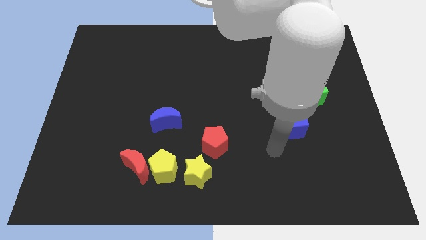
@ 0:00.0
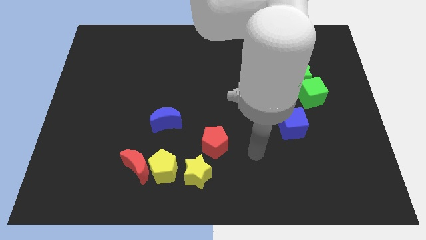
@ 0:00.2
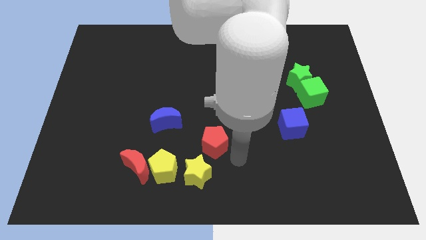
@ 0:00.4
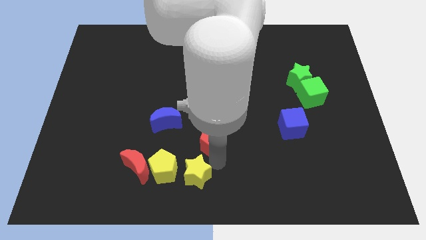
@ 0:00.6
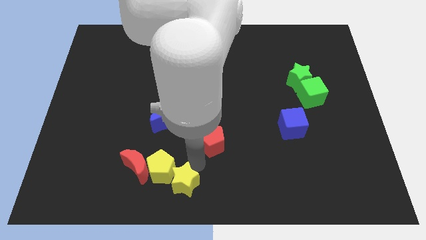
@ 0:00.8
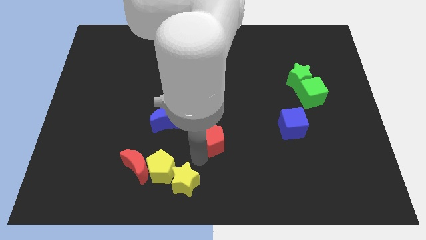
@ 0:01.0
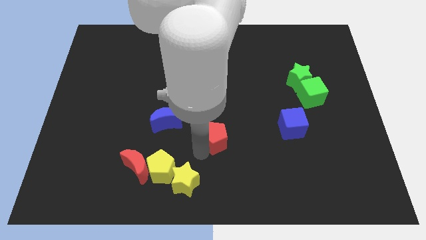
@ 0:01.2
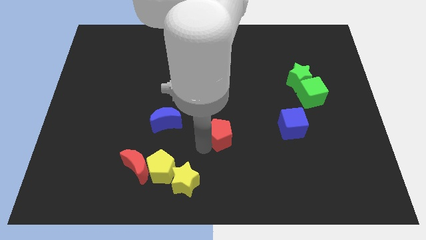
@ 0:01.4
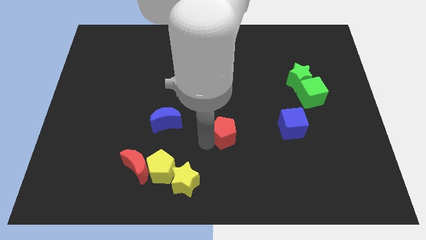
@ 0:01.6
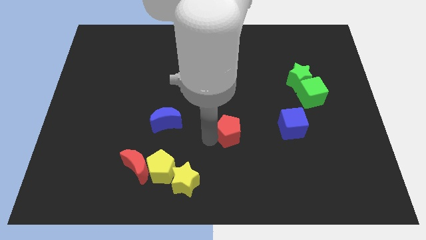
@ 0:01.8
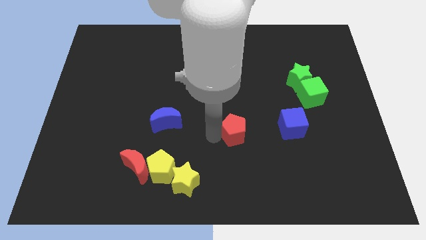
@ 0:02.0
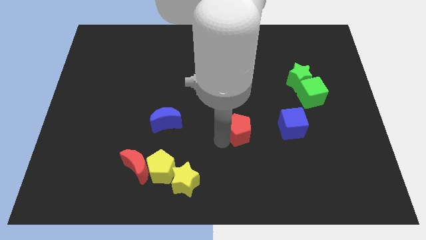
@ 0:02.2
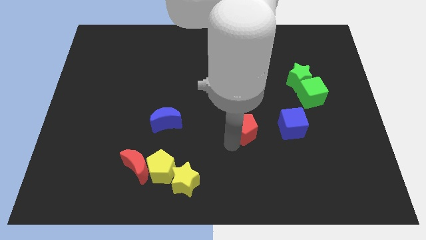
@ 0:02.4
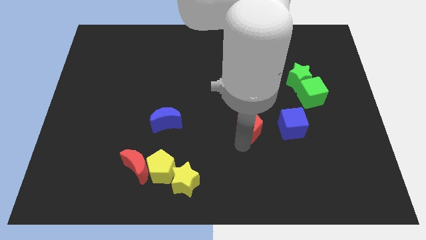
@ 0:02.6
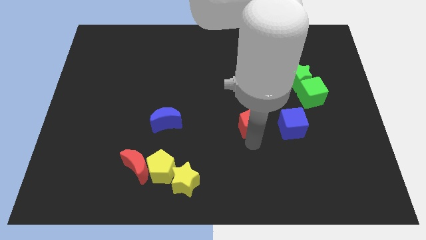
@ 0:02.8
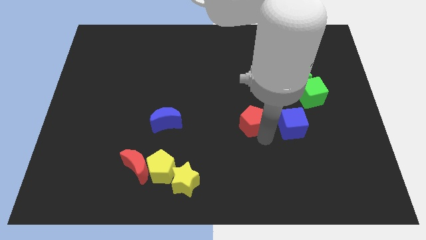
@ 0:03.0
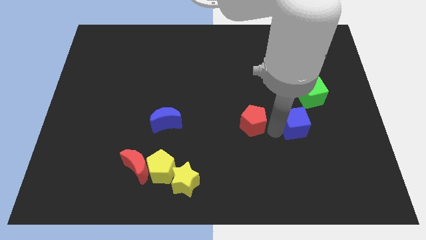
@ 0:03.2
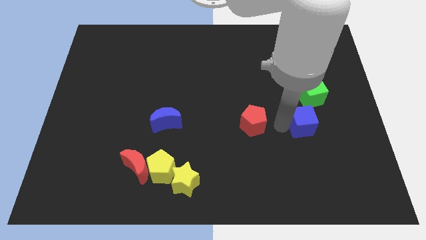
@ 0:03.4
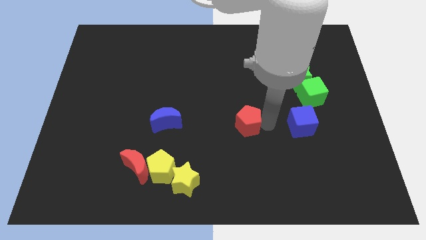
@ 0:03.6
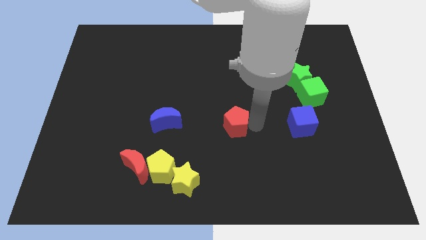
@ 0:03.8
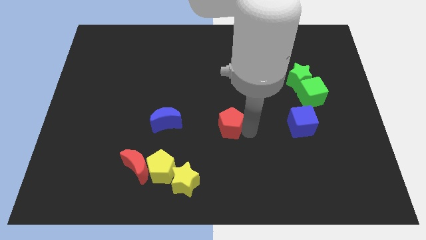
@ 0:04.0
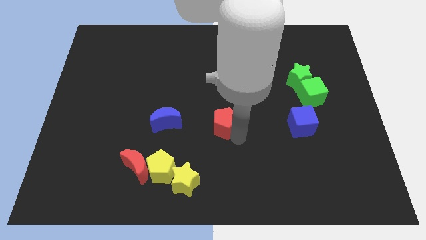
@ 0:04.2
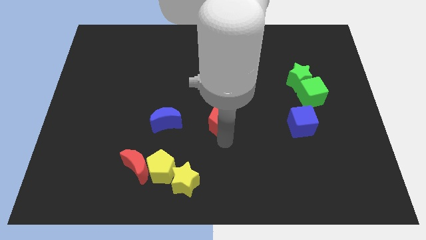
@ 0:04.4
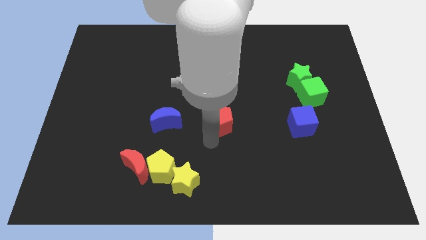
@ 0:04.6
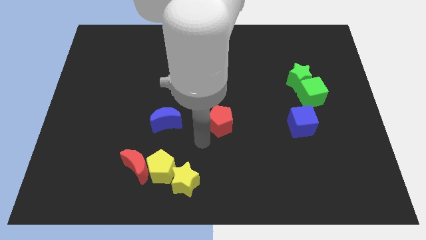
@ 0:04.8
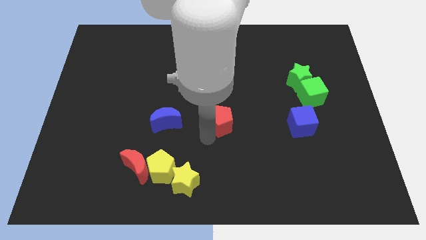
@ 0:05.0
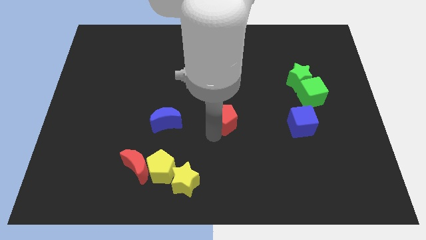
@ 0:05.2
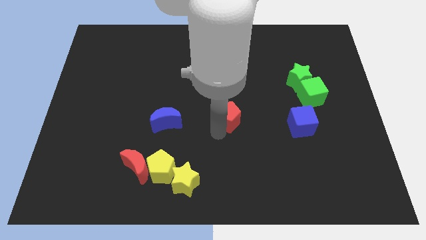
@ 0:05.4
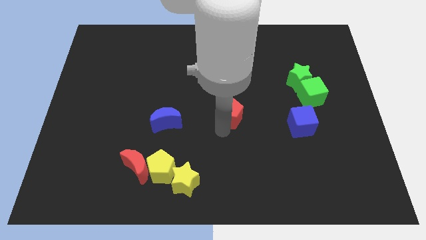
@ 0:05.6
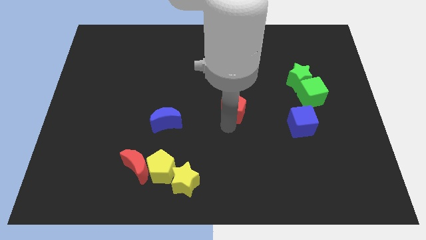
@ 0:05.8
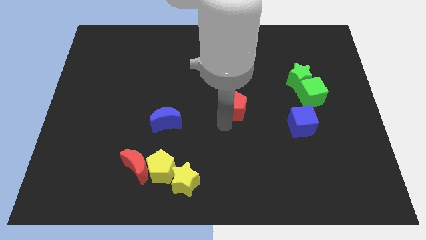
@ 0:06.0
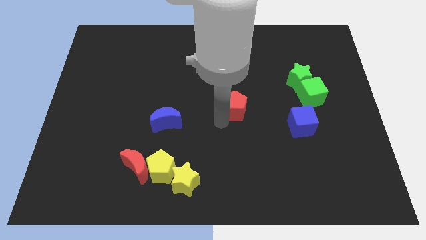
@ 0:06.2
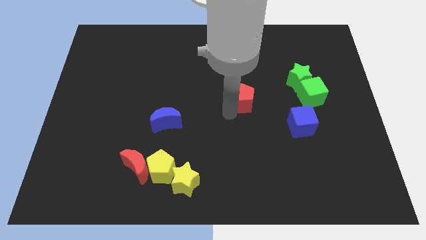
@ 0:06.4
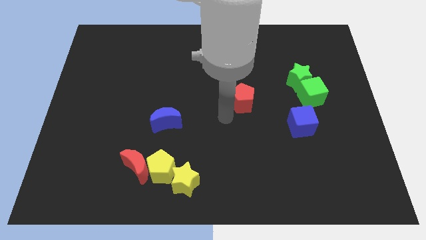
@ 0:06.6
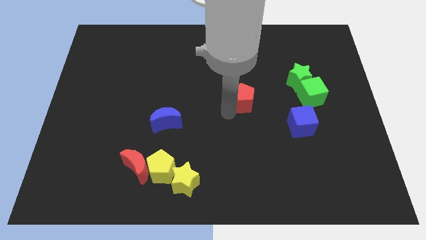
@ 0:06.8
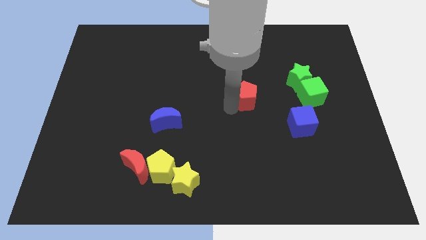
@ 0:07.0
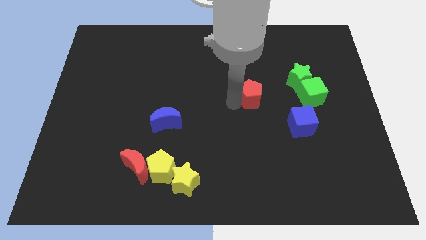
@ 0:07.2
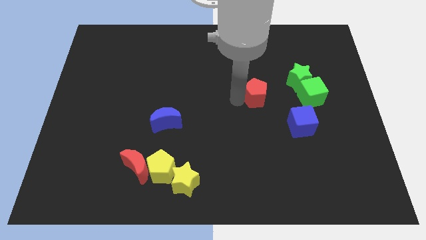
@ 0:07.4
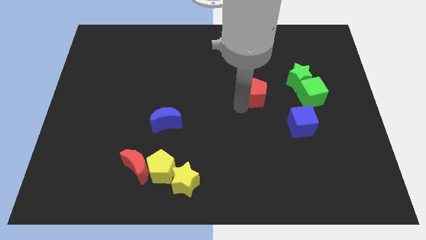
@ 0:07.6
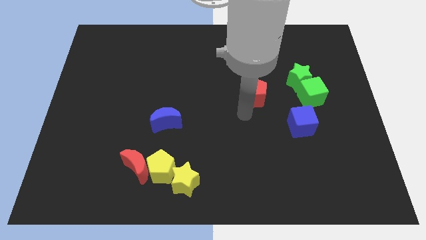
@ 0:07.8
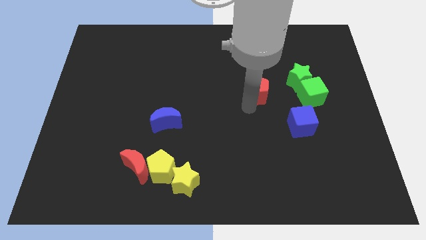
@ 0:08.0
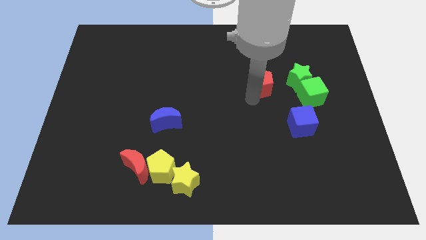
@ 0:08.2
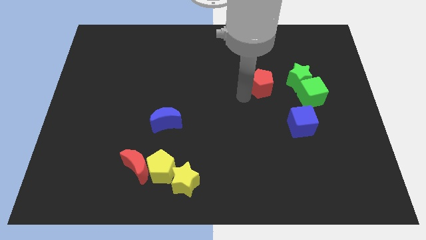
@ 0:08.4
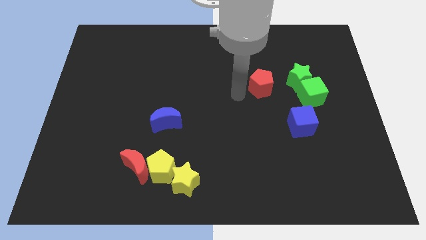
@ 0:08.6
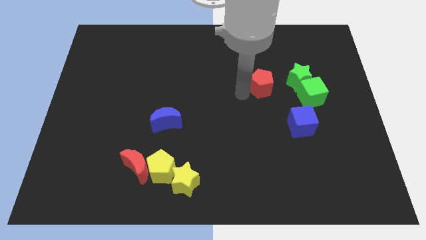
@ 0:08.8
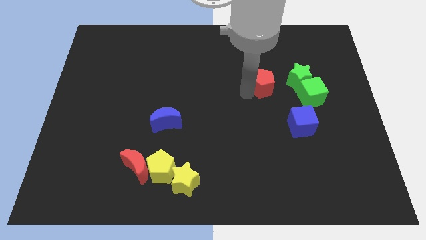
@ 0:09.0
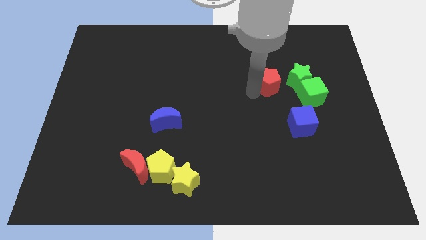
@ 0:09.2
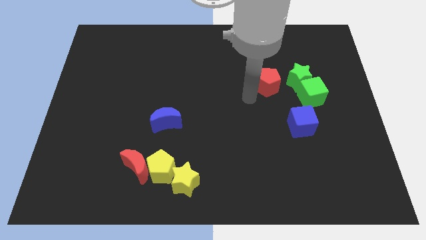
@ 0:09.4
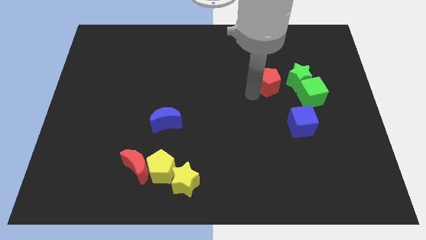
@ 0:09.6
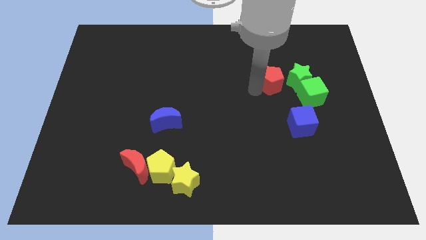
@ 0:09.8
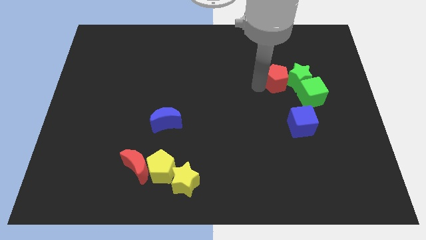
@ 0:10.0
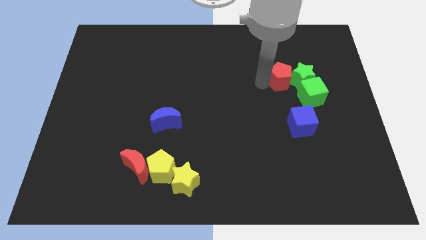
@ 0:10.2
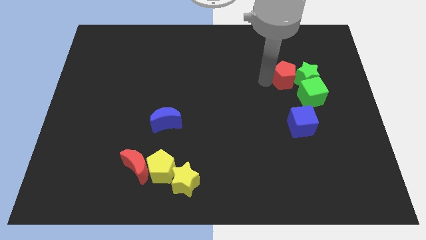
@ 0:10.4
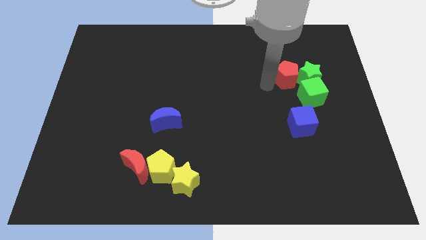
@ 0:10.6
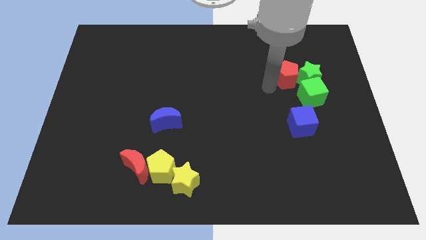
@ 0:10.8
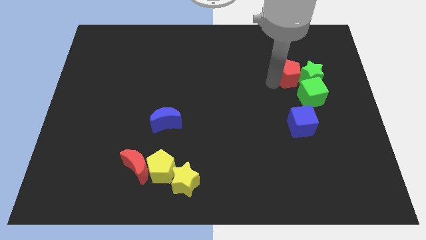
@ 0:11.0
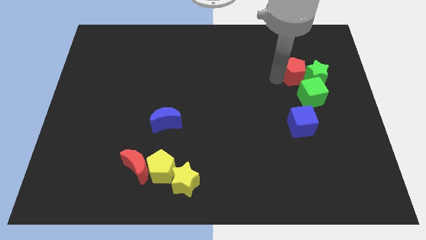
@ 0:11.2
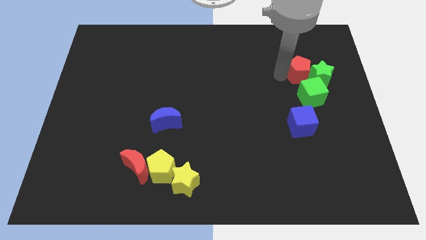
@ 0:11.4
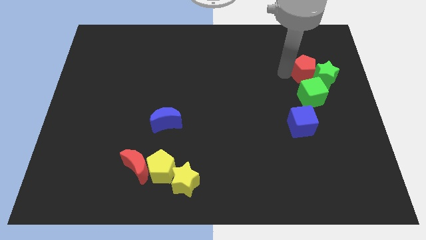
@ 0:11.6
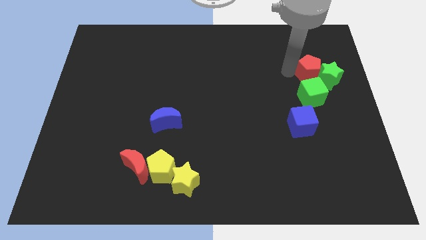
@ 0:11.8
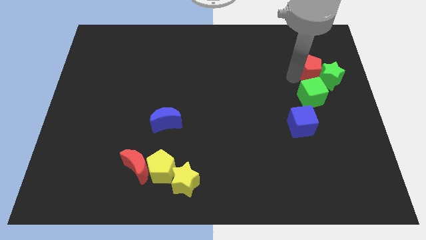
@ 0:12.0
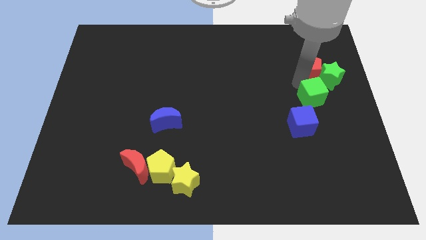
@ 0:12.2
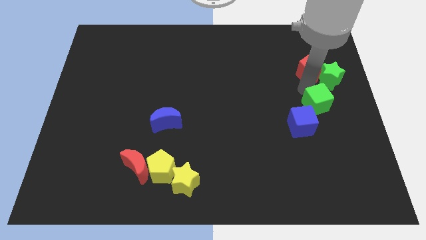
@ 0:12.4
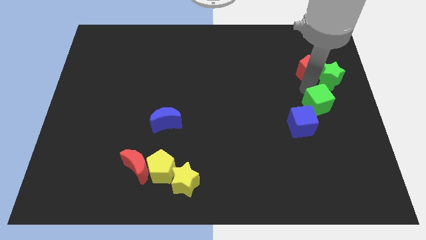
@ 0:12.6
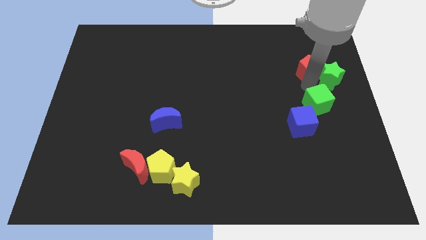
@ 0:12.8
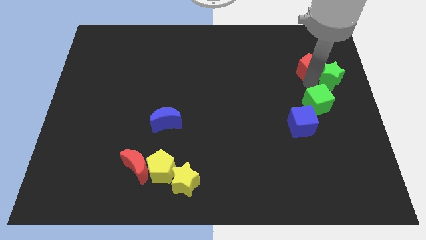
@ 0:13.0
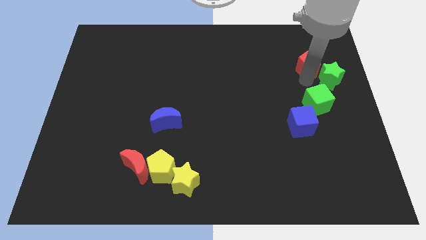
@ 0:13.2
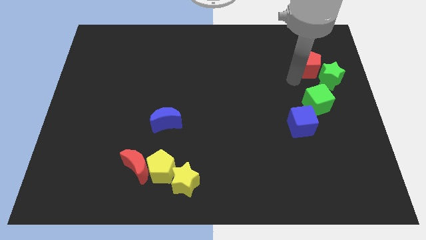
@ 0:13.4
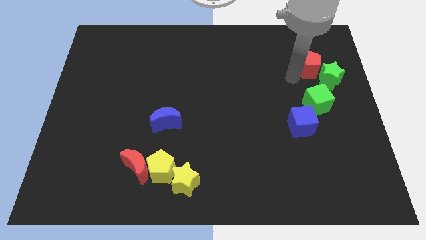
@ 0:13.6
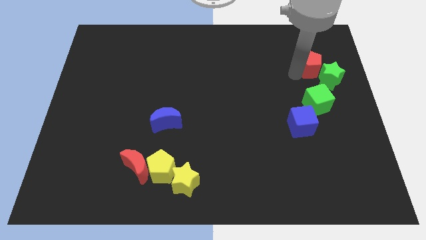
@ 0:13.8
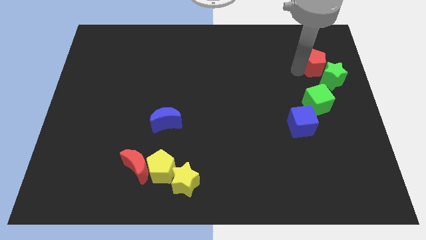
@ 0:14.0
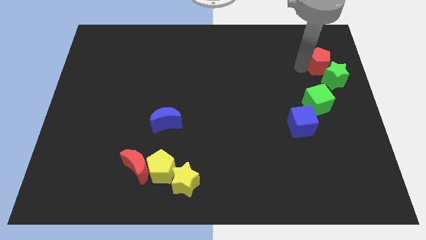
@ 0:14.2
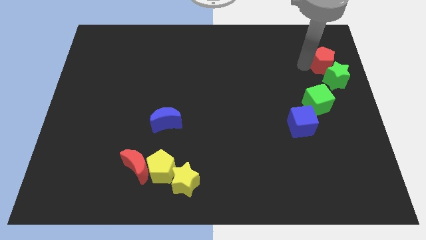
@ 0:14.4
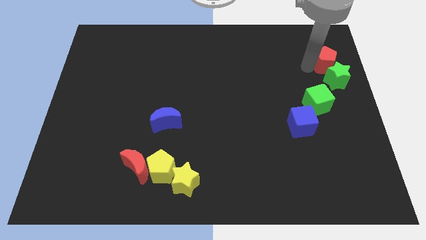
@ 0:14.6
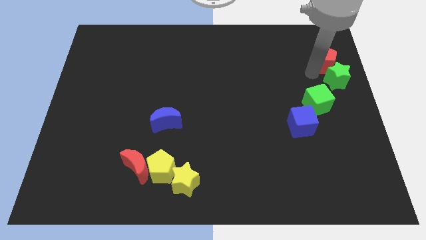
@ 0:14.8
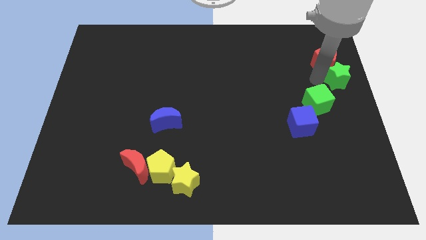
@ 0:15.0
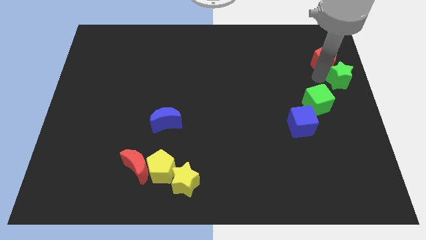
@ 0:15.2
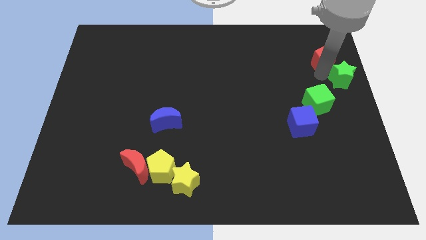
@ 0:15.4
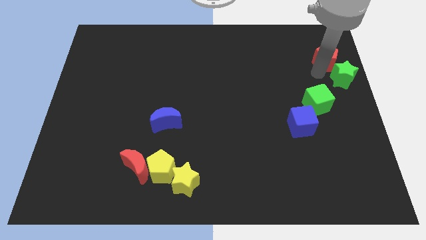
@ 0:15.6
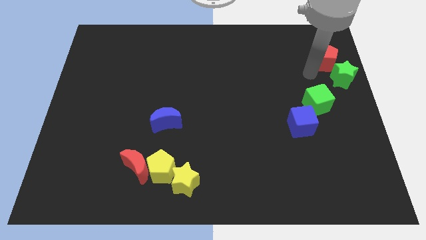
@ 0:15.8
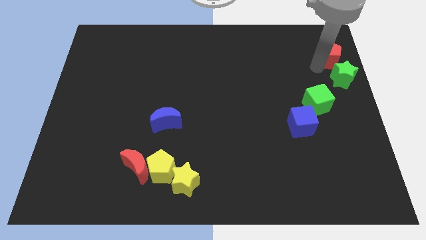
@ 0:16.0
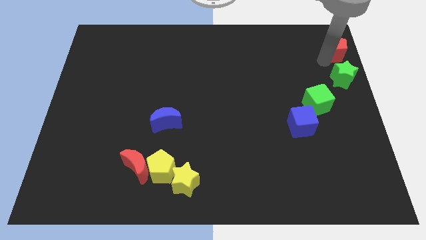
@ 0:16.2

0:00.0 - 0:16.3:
push the red pentagon to the top right corner
